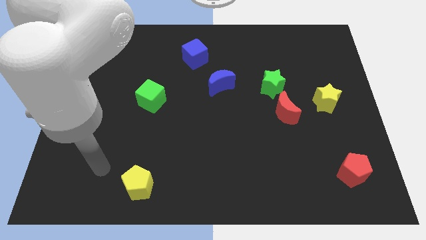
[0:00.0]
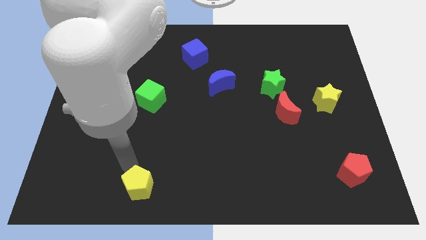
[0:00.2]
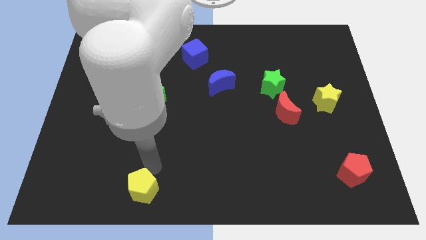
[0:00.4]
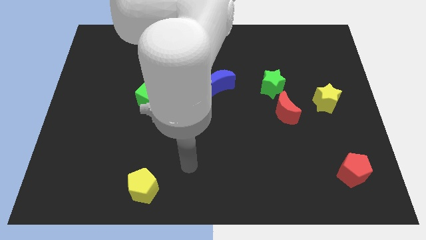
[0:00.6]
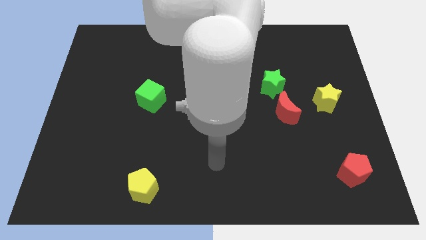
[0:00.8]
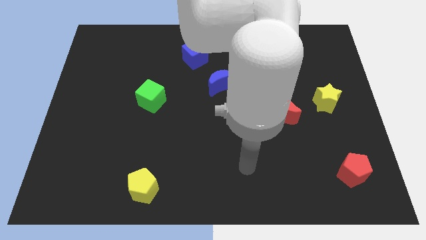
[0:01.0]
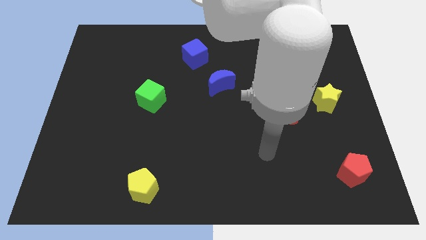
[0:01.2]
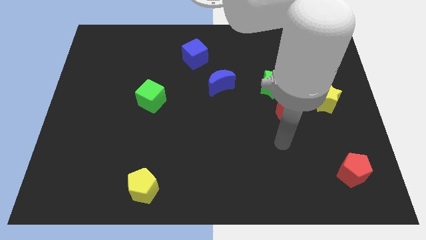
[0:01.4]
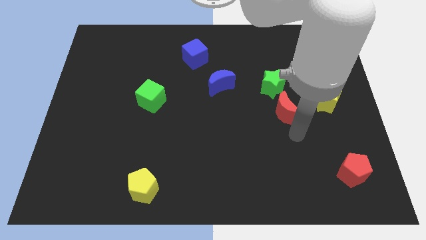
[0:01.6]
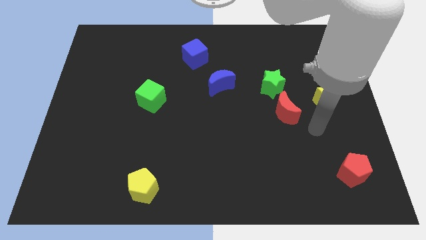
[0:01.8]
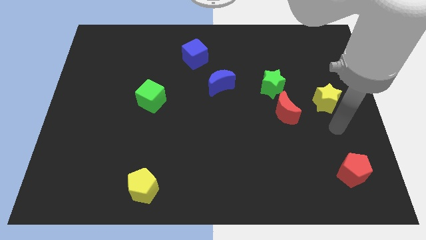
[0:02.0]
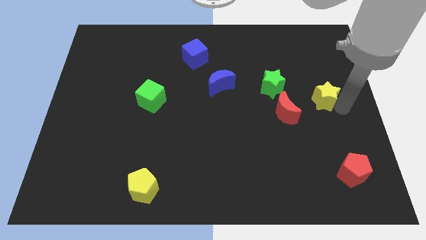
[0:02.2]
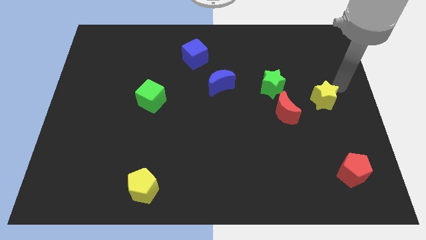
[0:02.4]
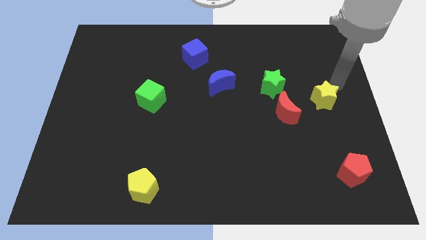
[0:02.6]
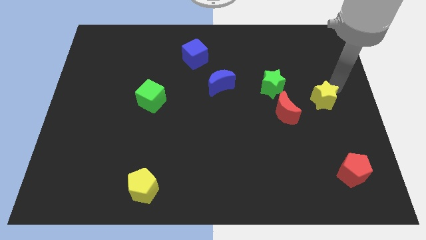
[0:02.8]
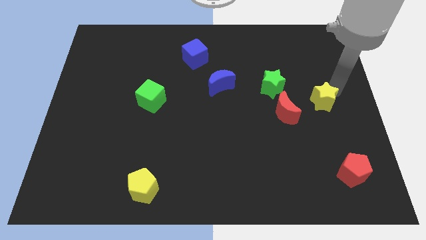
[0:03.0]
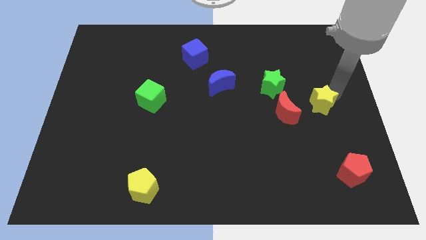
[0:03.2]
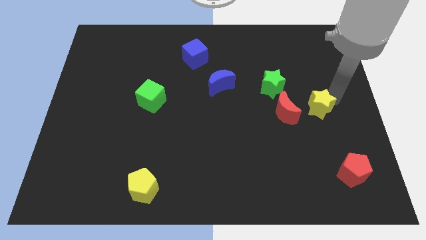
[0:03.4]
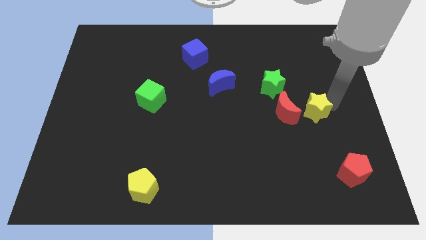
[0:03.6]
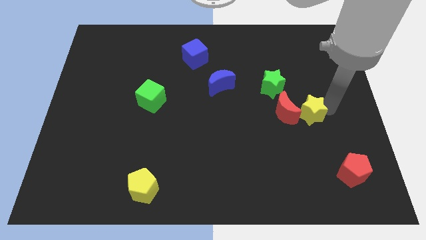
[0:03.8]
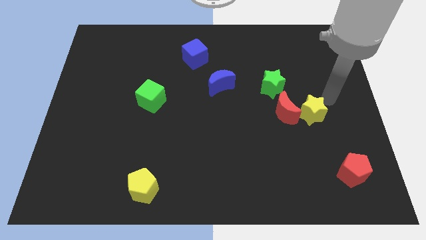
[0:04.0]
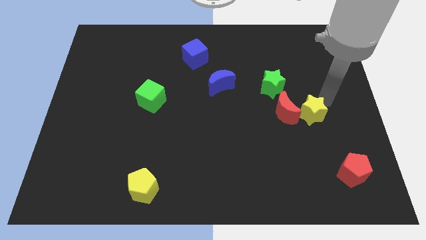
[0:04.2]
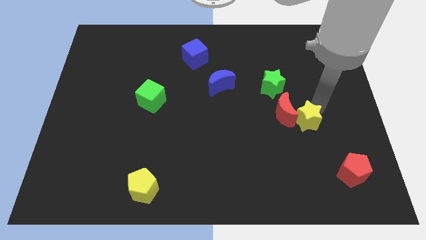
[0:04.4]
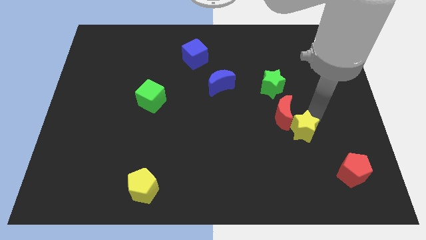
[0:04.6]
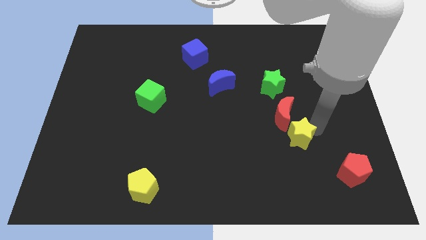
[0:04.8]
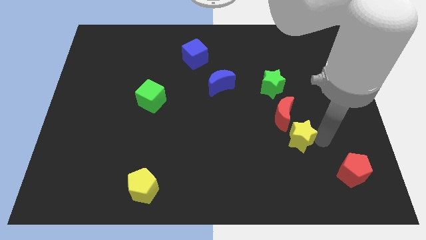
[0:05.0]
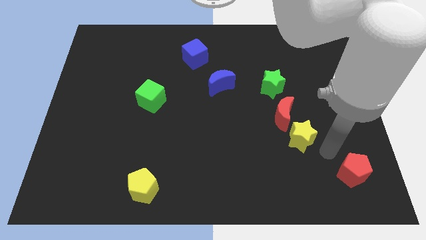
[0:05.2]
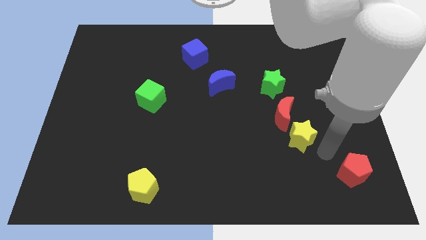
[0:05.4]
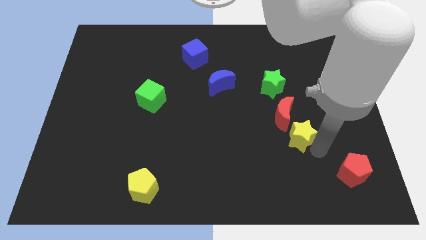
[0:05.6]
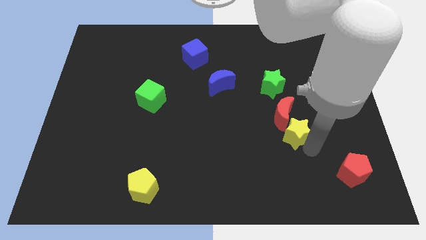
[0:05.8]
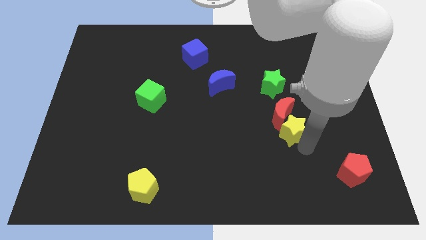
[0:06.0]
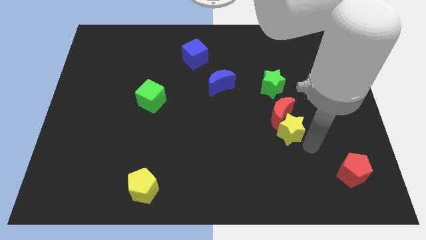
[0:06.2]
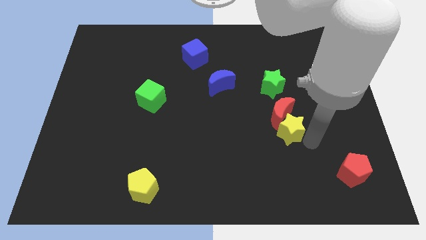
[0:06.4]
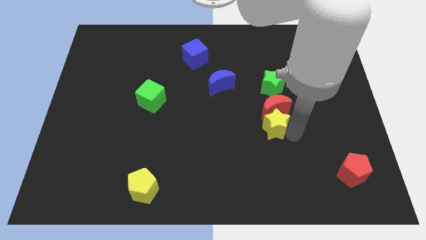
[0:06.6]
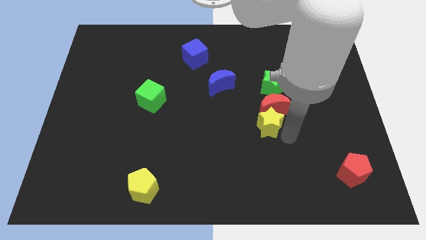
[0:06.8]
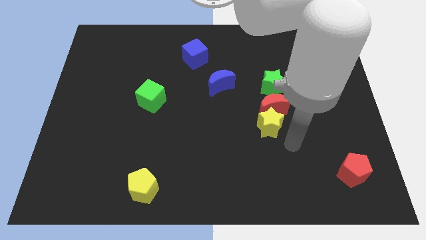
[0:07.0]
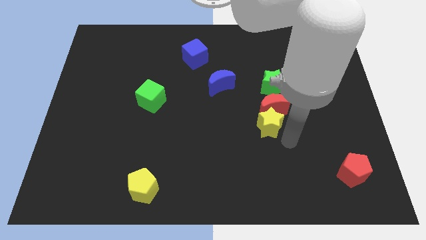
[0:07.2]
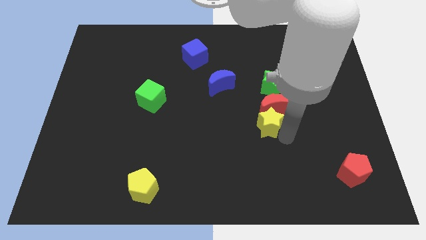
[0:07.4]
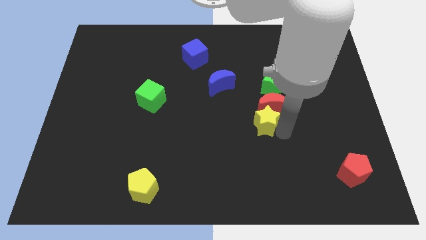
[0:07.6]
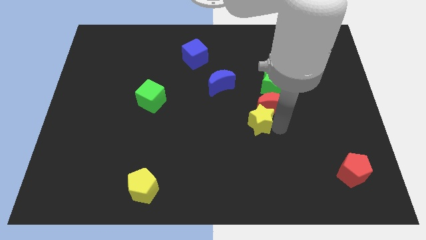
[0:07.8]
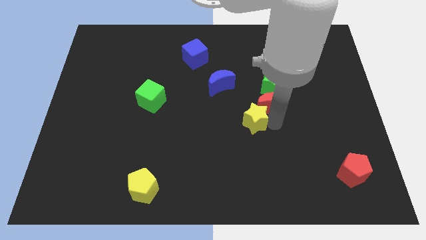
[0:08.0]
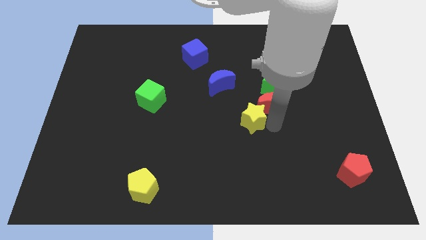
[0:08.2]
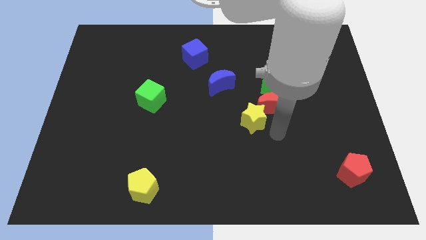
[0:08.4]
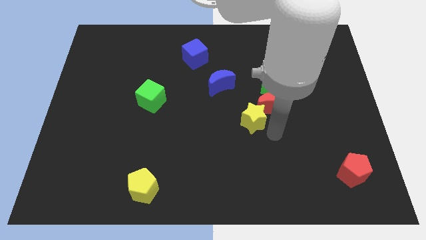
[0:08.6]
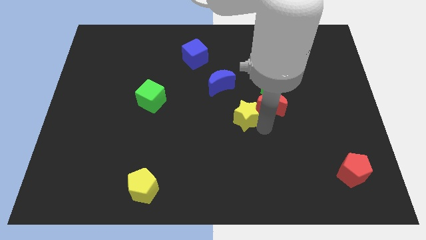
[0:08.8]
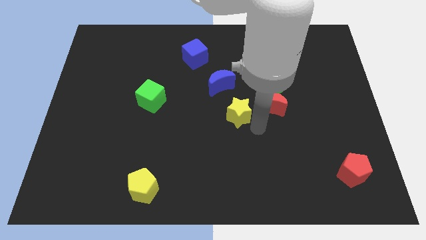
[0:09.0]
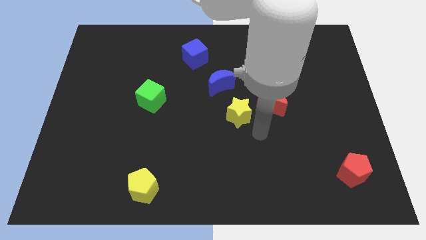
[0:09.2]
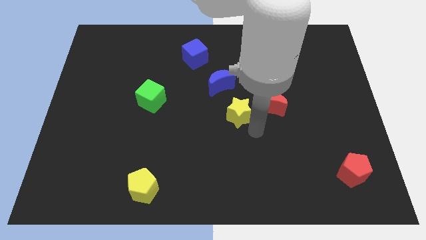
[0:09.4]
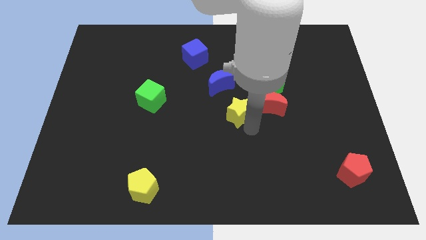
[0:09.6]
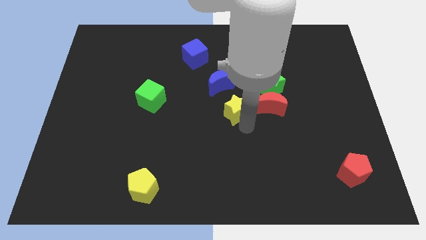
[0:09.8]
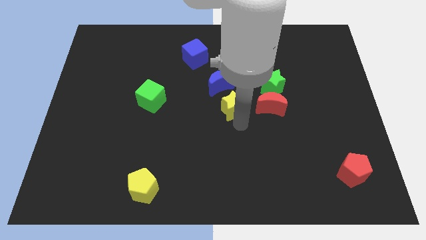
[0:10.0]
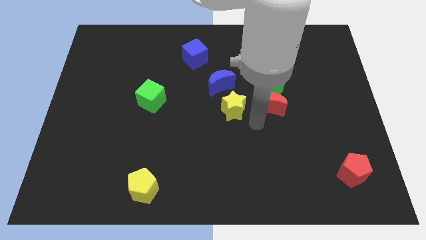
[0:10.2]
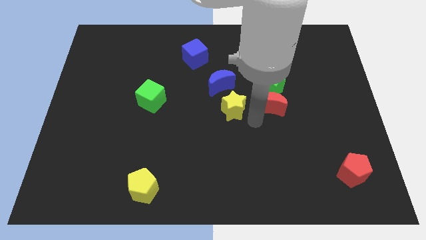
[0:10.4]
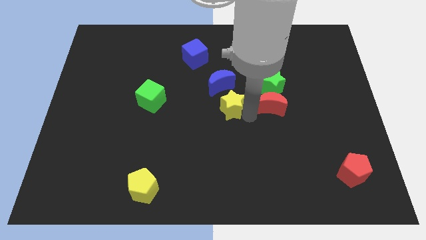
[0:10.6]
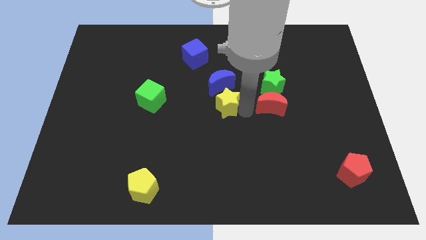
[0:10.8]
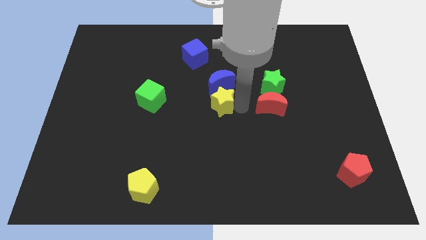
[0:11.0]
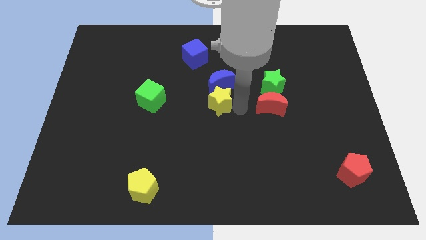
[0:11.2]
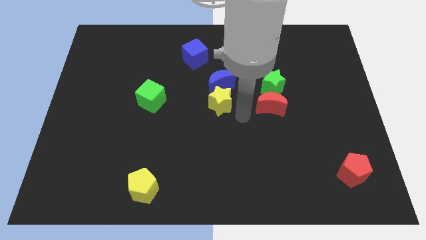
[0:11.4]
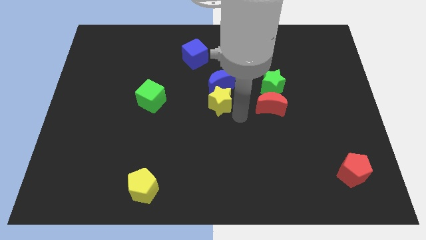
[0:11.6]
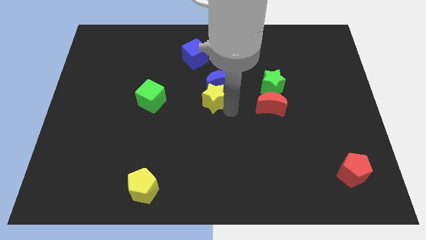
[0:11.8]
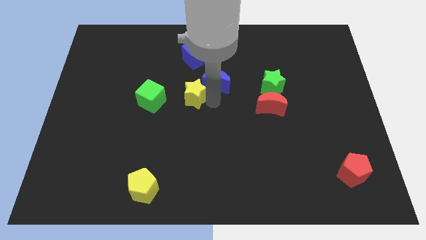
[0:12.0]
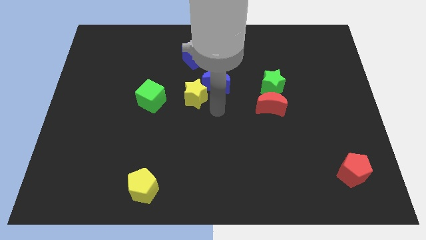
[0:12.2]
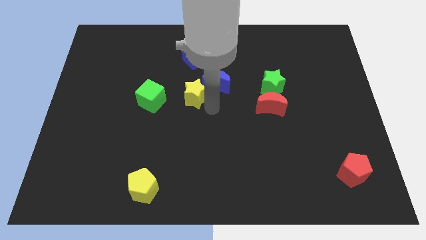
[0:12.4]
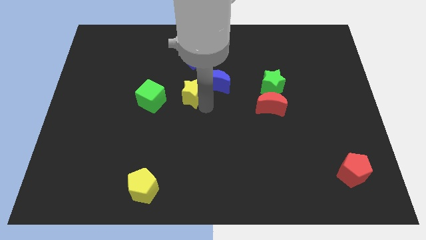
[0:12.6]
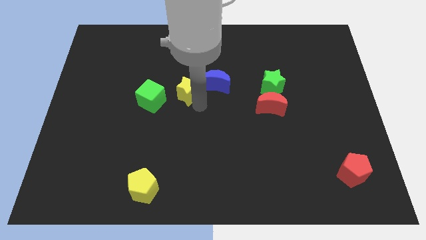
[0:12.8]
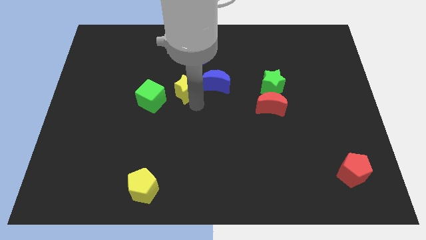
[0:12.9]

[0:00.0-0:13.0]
put the yellow star to the top right side of the green cube
